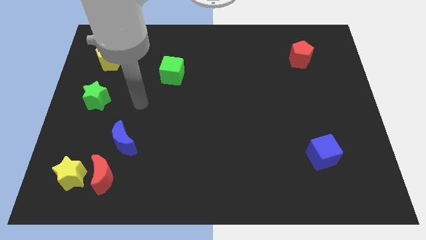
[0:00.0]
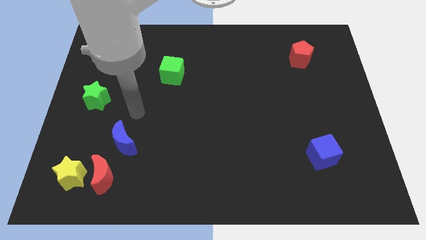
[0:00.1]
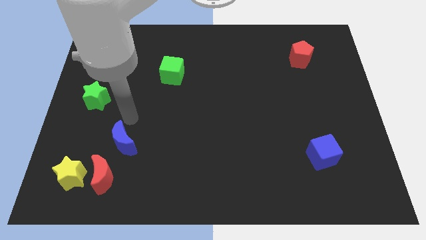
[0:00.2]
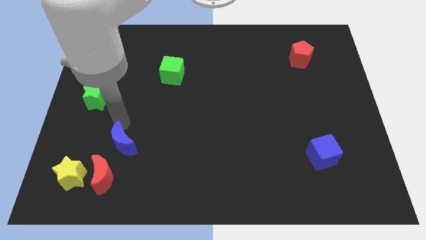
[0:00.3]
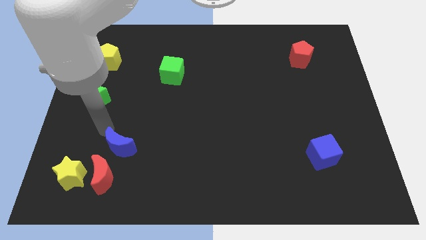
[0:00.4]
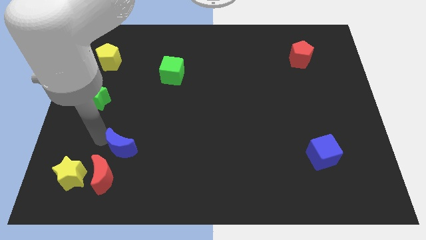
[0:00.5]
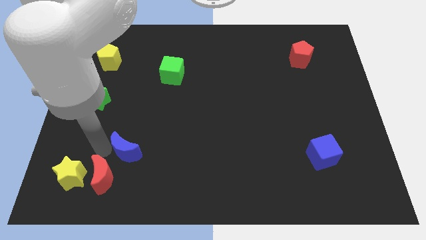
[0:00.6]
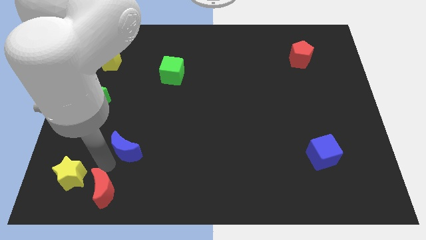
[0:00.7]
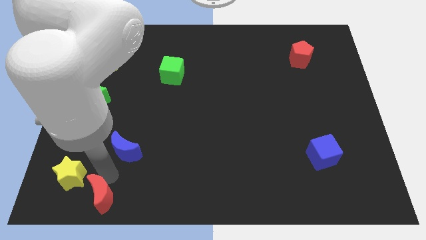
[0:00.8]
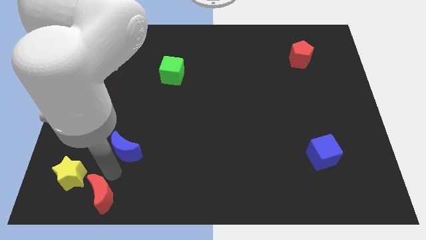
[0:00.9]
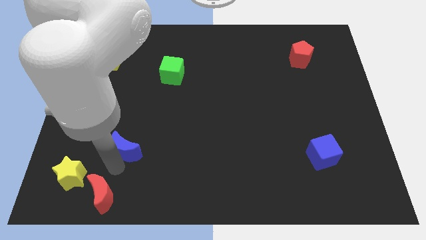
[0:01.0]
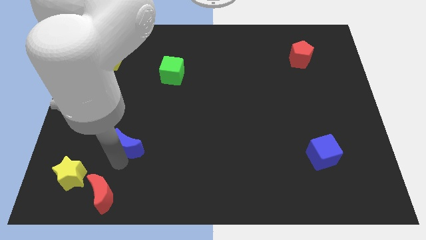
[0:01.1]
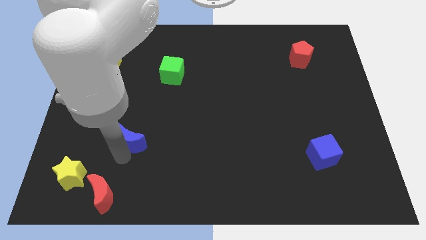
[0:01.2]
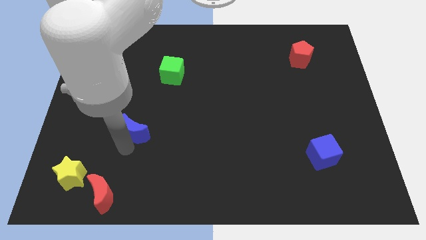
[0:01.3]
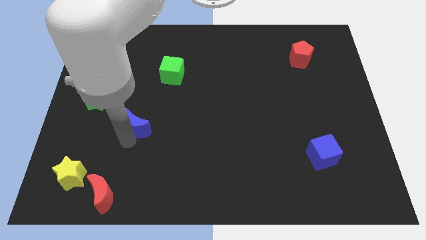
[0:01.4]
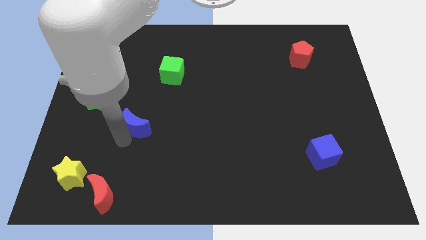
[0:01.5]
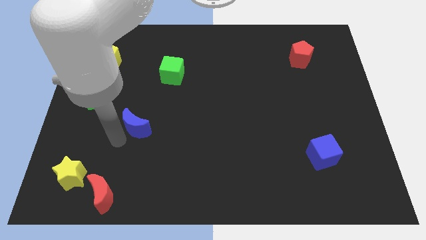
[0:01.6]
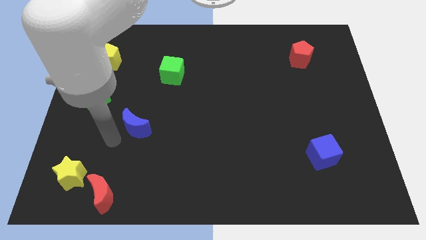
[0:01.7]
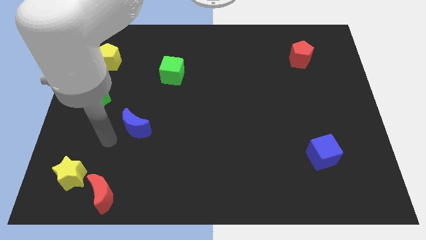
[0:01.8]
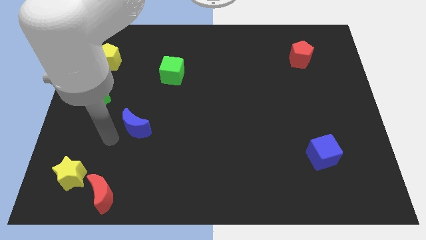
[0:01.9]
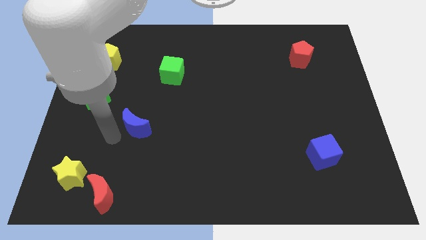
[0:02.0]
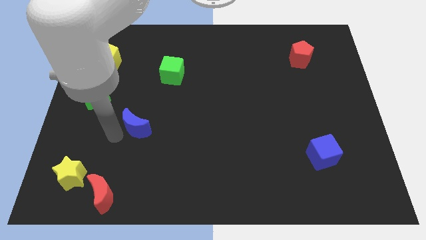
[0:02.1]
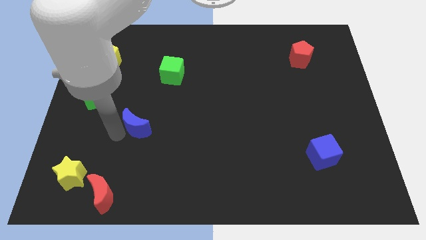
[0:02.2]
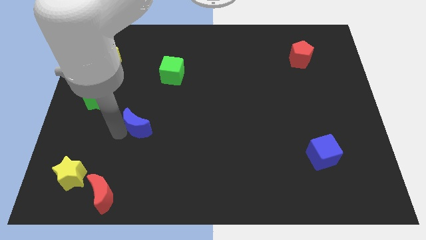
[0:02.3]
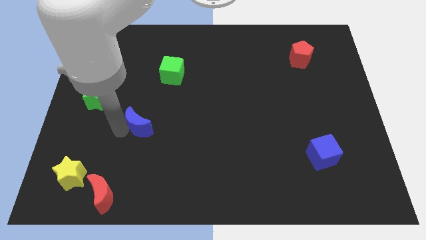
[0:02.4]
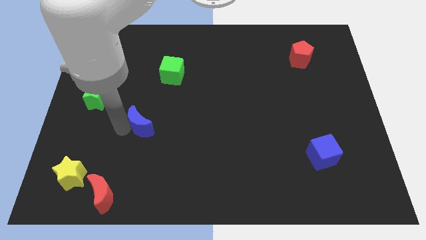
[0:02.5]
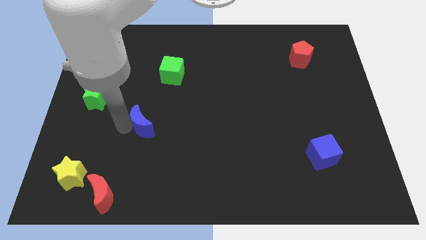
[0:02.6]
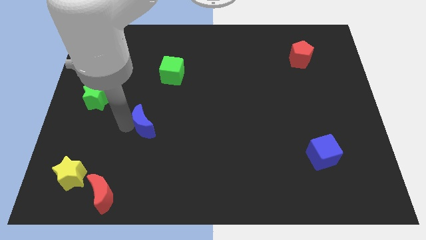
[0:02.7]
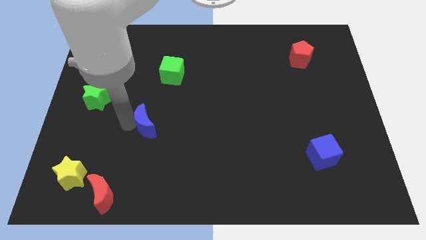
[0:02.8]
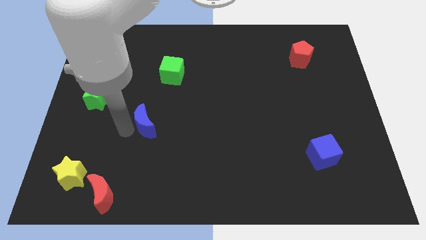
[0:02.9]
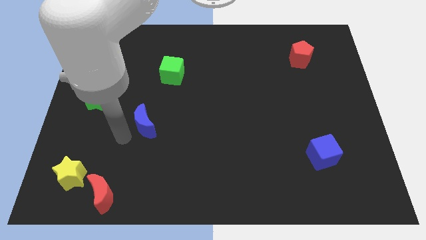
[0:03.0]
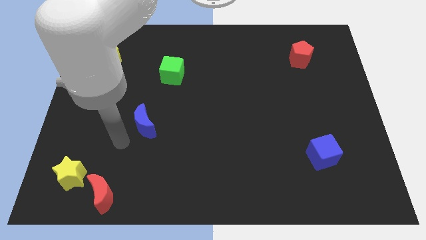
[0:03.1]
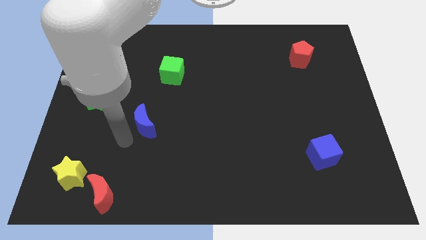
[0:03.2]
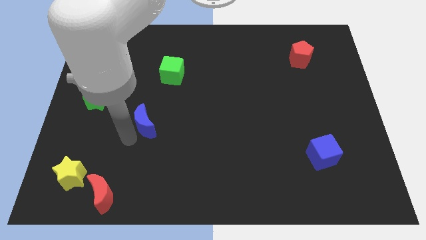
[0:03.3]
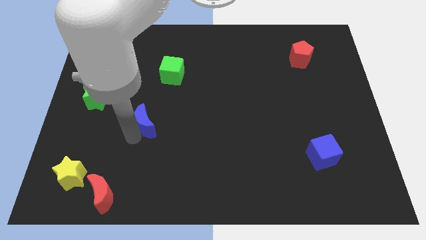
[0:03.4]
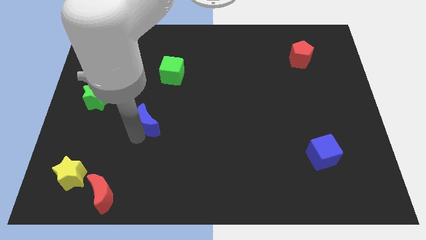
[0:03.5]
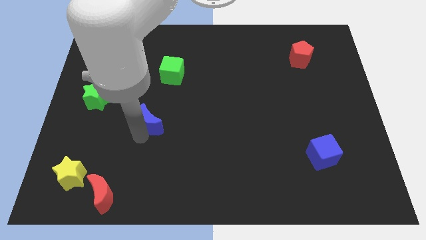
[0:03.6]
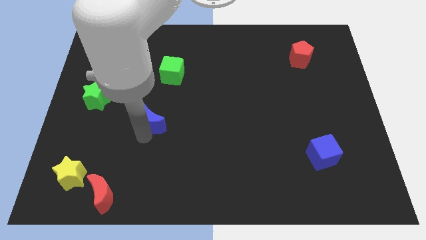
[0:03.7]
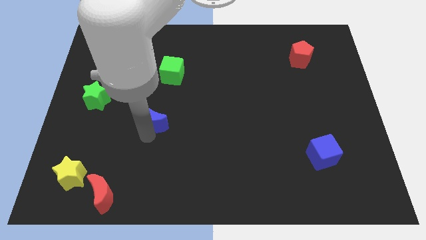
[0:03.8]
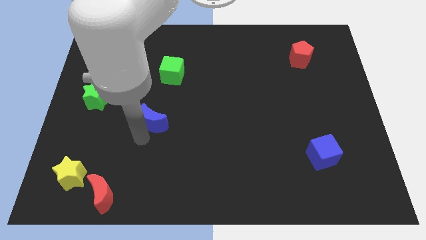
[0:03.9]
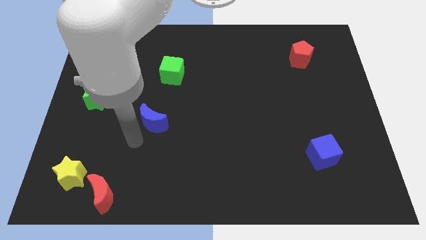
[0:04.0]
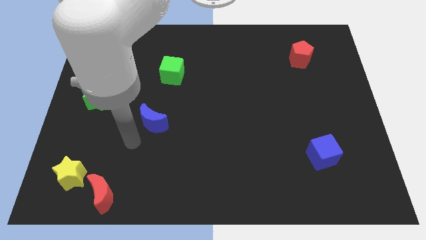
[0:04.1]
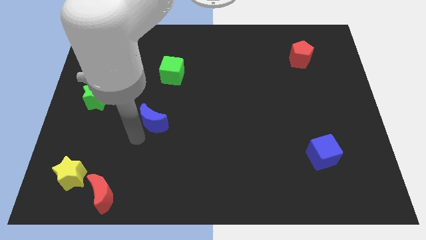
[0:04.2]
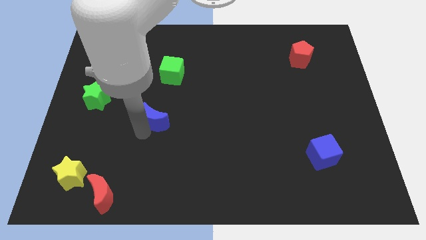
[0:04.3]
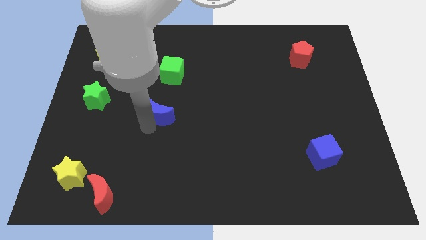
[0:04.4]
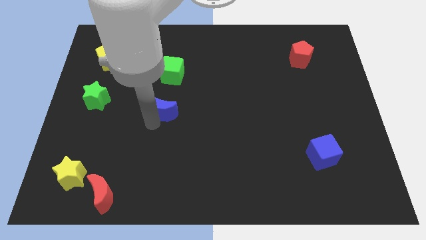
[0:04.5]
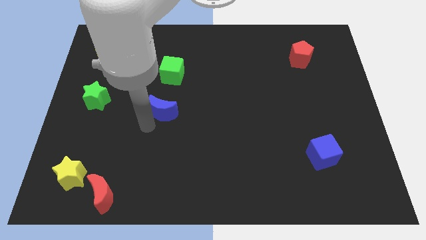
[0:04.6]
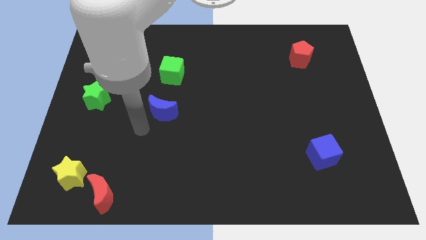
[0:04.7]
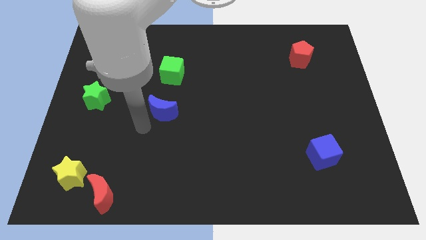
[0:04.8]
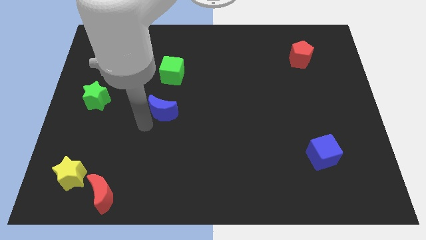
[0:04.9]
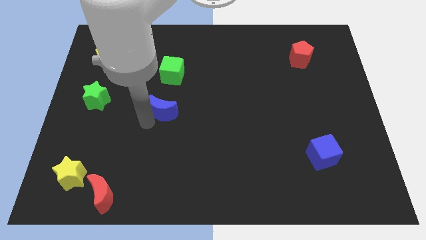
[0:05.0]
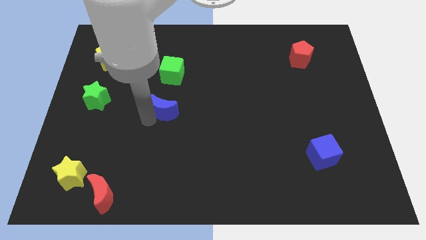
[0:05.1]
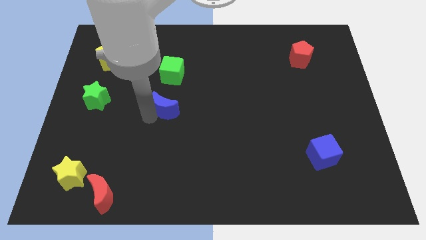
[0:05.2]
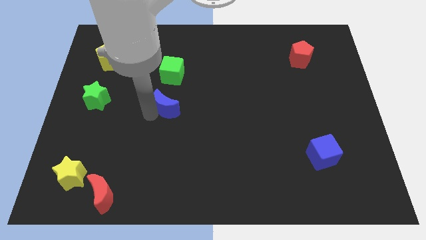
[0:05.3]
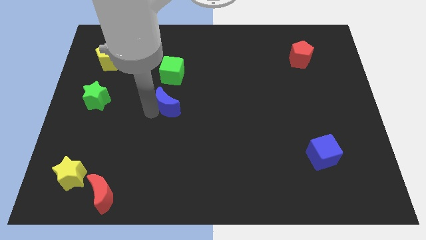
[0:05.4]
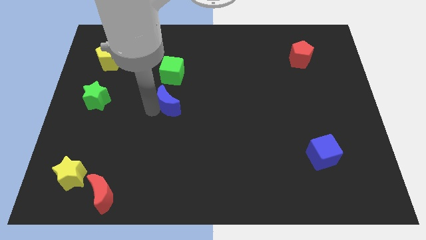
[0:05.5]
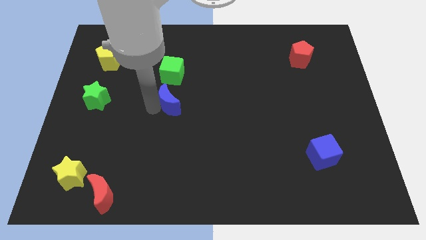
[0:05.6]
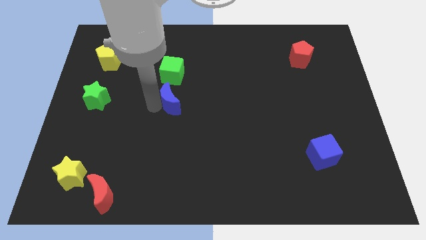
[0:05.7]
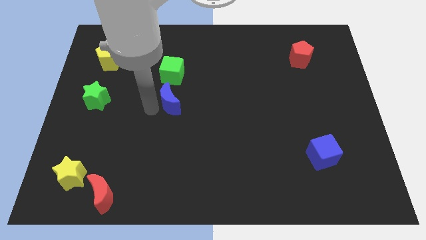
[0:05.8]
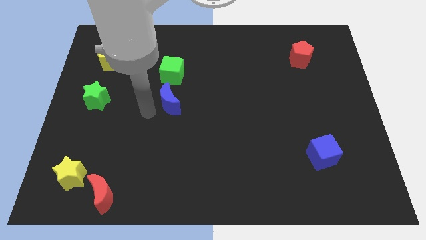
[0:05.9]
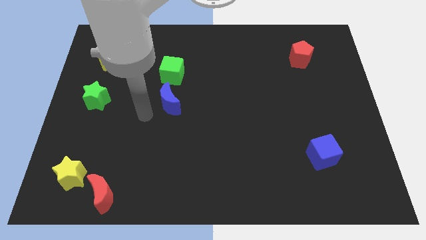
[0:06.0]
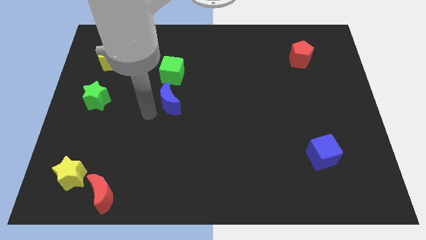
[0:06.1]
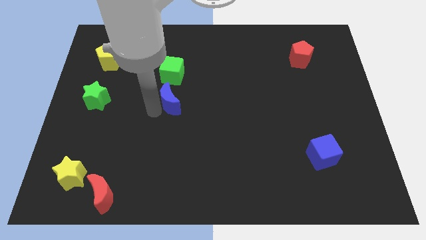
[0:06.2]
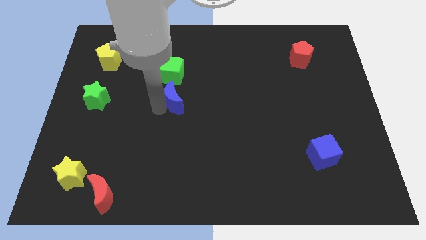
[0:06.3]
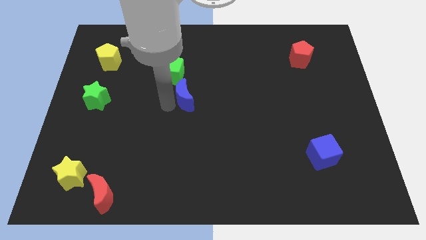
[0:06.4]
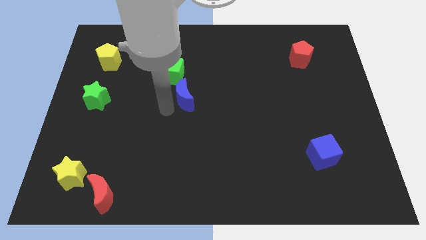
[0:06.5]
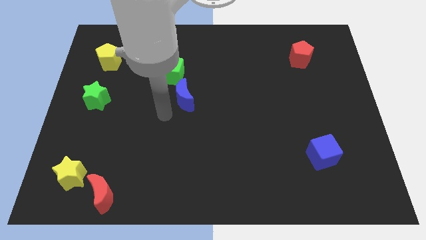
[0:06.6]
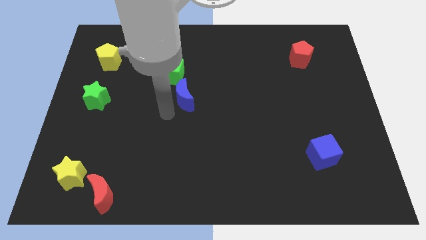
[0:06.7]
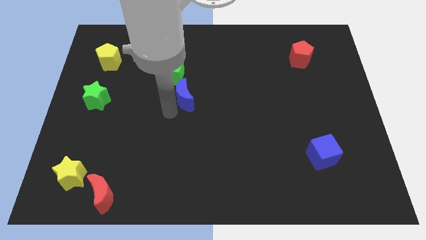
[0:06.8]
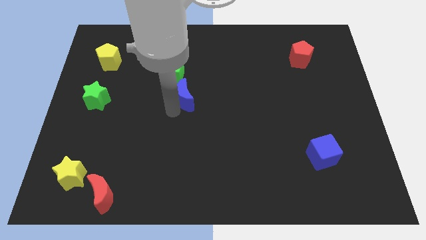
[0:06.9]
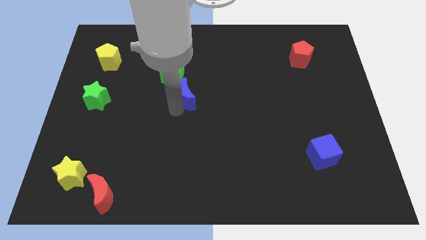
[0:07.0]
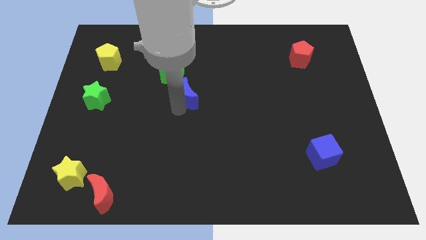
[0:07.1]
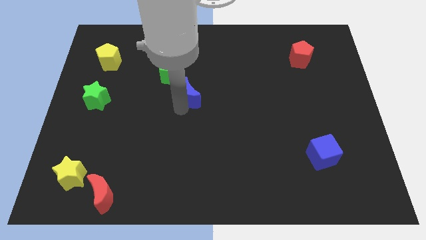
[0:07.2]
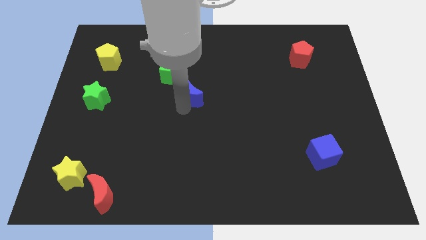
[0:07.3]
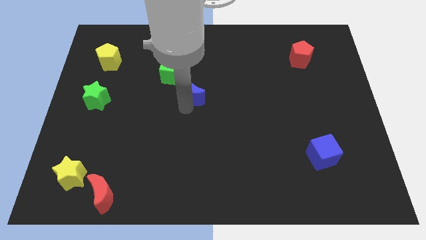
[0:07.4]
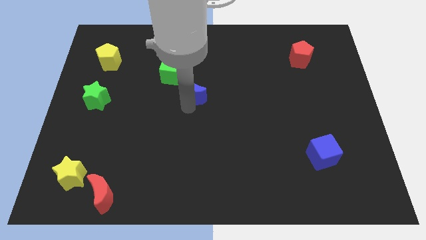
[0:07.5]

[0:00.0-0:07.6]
slide the blue moon upwards and right

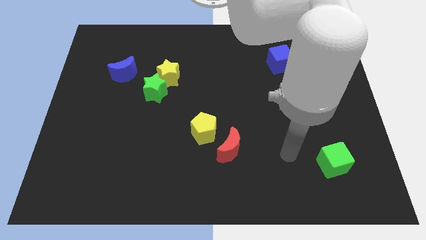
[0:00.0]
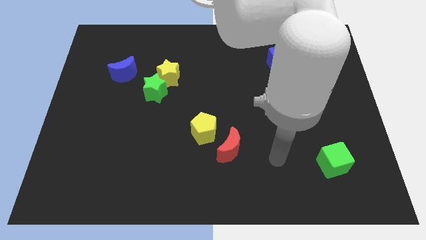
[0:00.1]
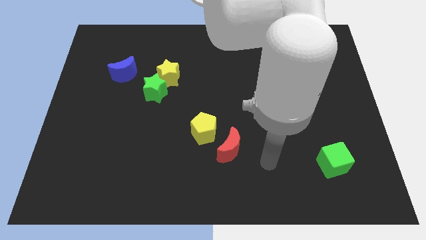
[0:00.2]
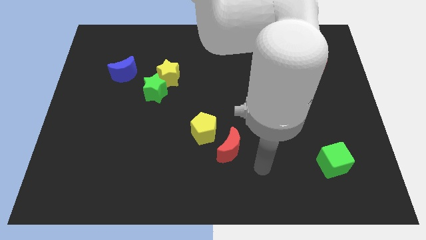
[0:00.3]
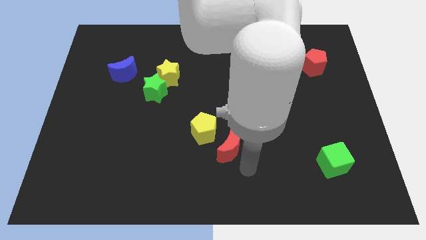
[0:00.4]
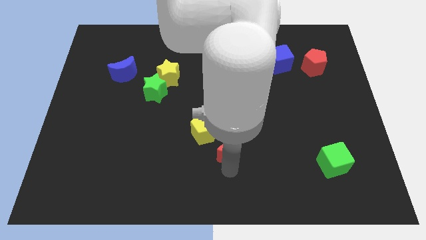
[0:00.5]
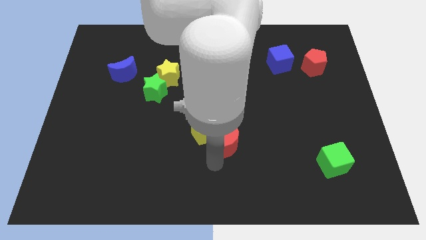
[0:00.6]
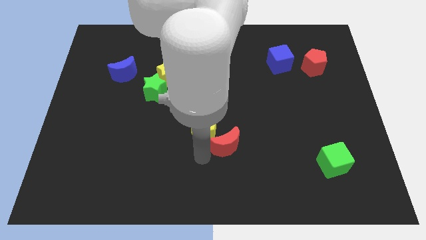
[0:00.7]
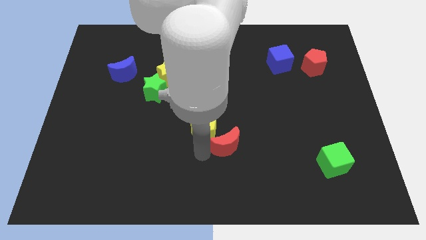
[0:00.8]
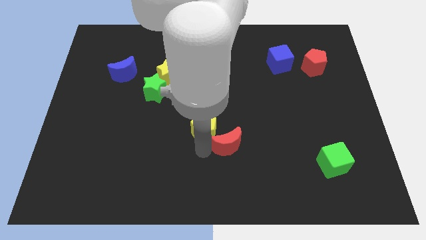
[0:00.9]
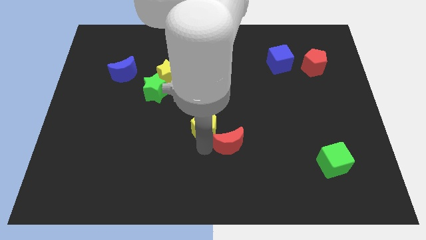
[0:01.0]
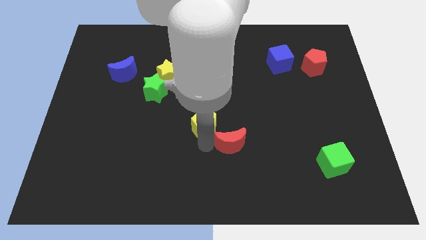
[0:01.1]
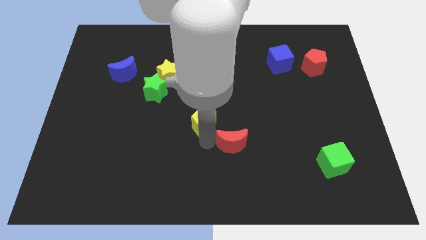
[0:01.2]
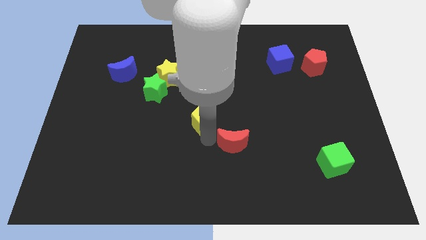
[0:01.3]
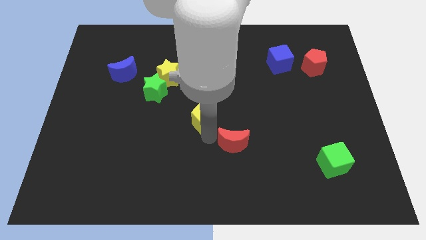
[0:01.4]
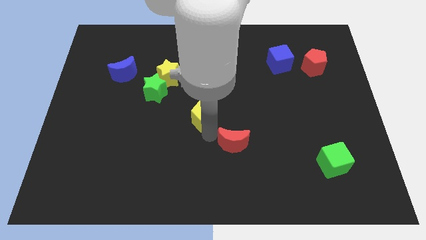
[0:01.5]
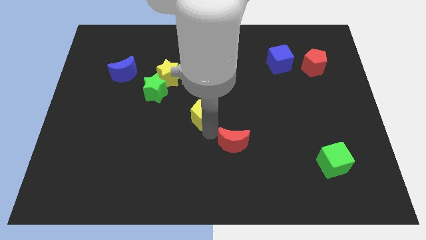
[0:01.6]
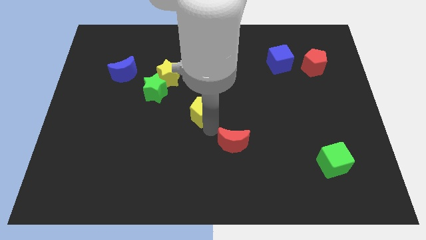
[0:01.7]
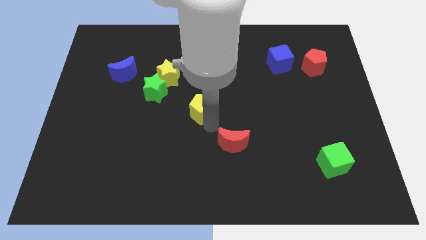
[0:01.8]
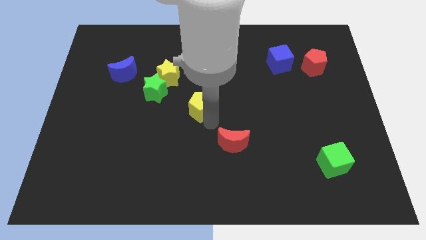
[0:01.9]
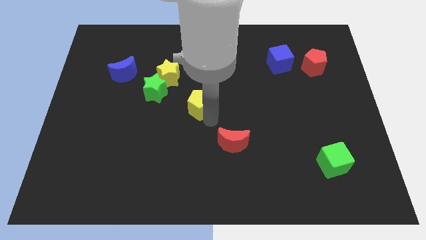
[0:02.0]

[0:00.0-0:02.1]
slide the yellow pentagon a little bit upwards
